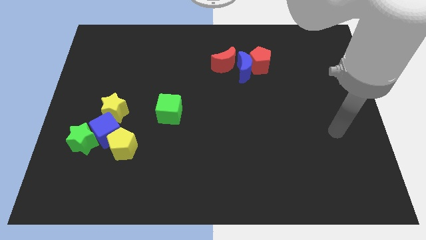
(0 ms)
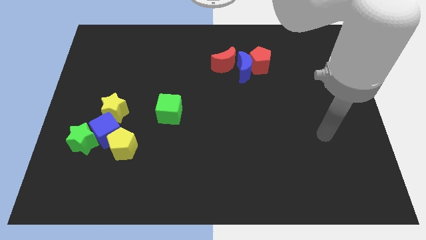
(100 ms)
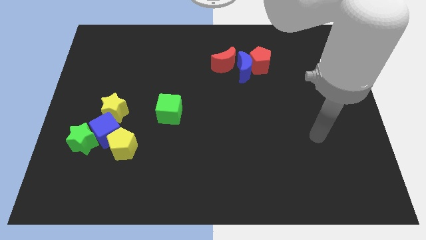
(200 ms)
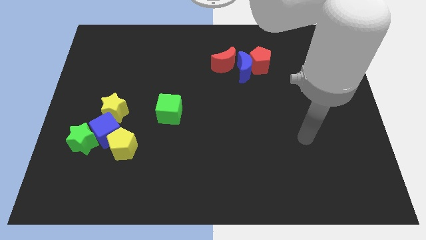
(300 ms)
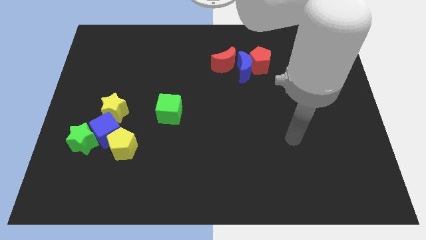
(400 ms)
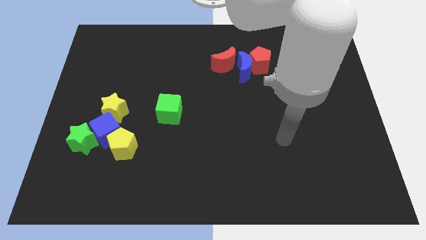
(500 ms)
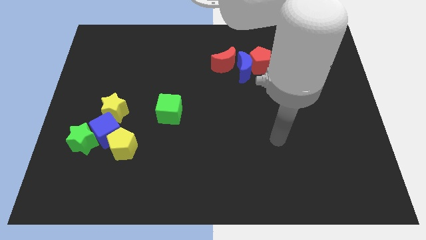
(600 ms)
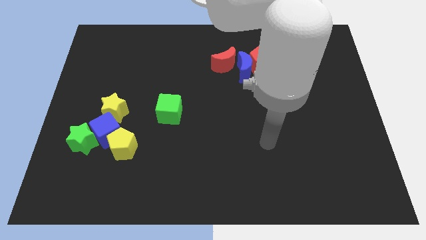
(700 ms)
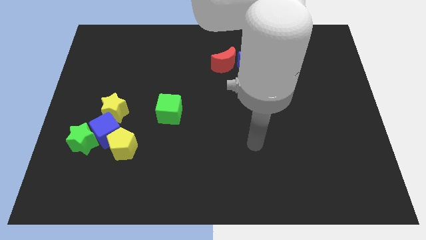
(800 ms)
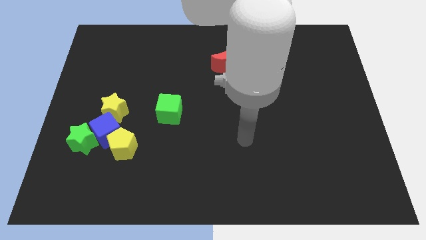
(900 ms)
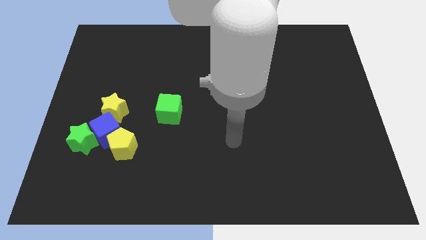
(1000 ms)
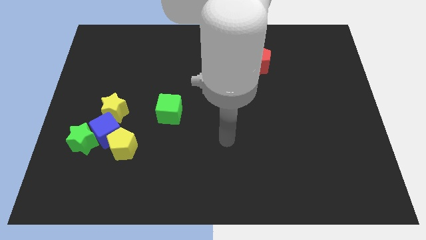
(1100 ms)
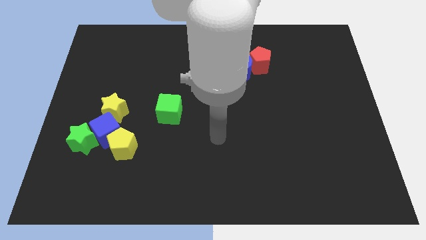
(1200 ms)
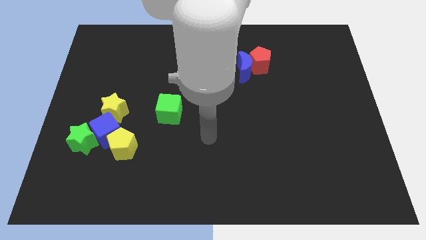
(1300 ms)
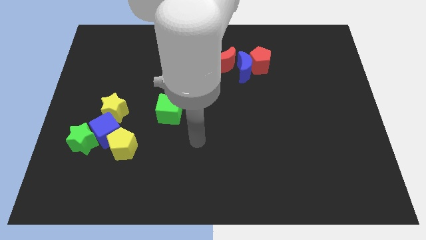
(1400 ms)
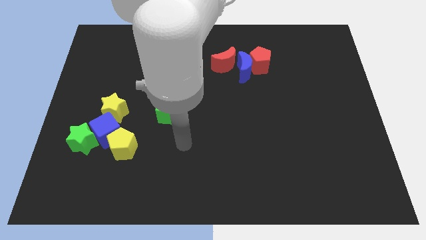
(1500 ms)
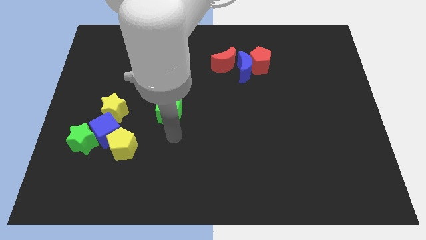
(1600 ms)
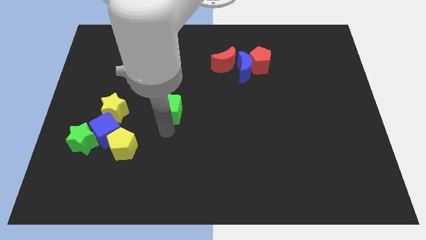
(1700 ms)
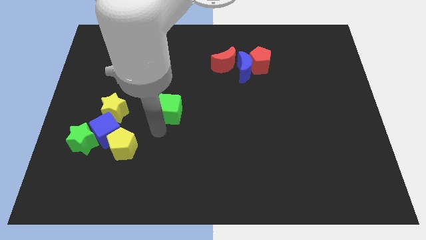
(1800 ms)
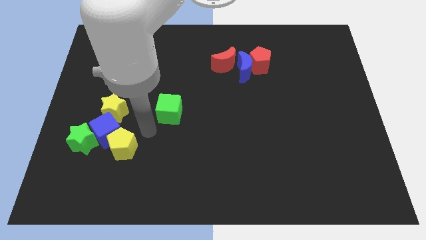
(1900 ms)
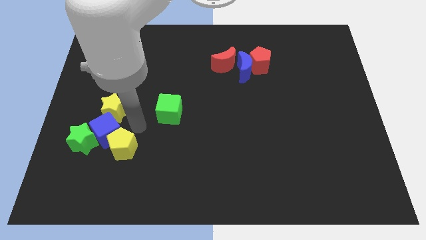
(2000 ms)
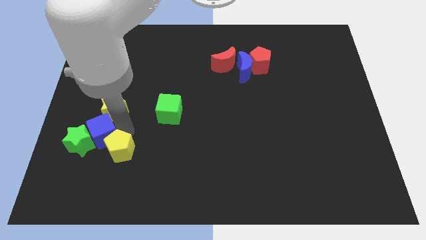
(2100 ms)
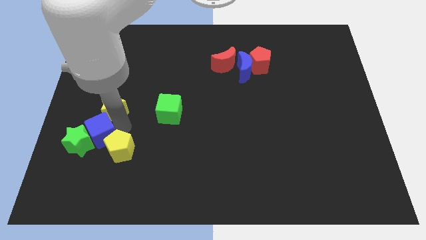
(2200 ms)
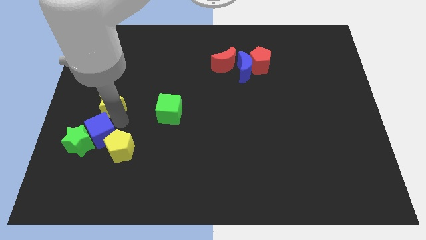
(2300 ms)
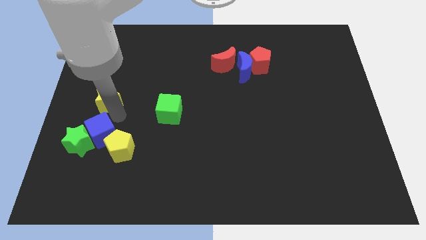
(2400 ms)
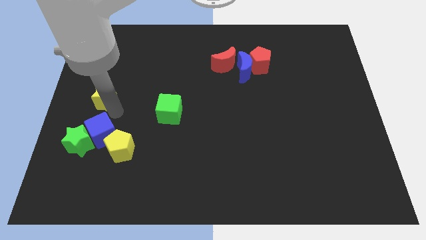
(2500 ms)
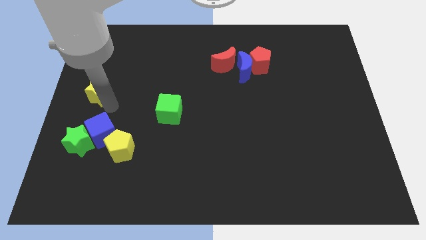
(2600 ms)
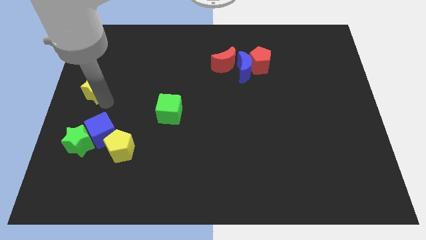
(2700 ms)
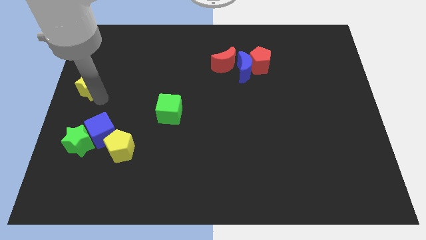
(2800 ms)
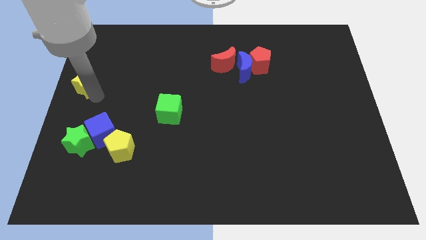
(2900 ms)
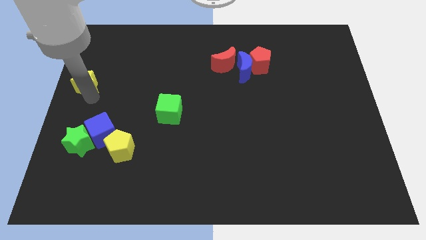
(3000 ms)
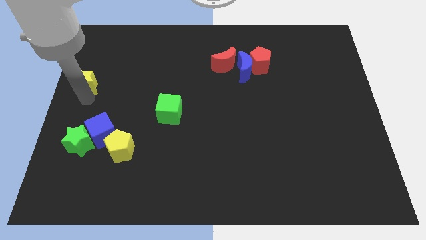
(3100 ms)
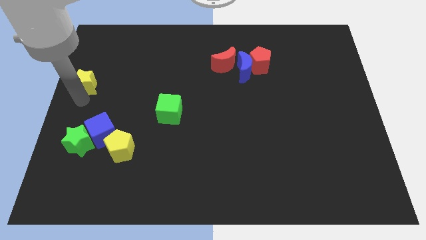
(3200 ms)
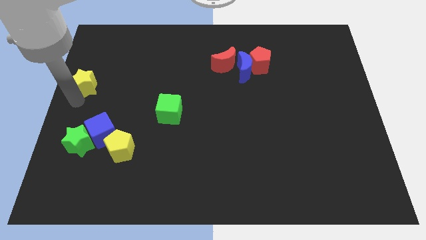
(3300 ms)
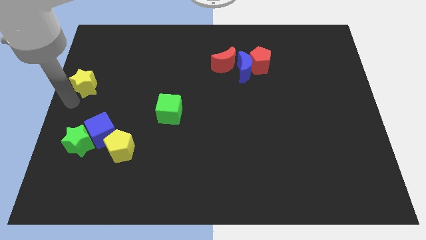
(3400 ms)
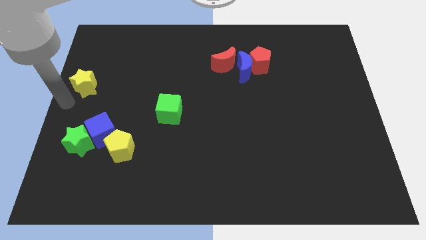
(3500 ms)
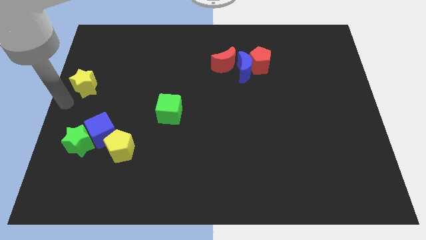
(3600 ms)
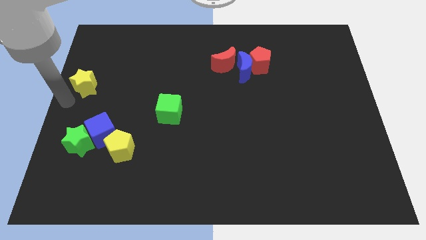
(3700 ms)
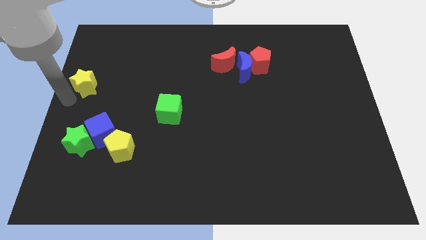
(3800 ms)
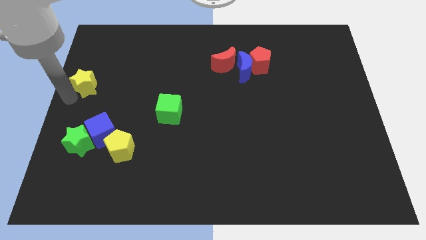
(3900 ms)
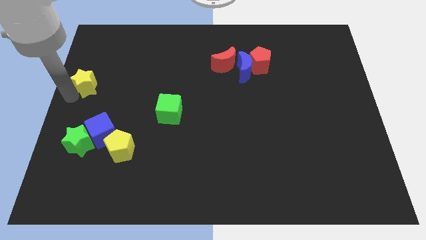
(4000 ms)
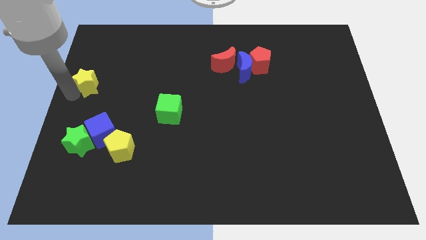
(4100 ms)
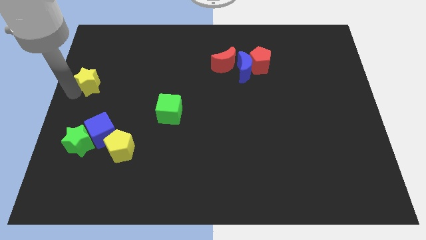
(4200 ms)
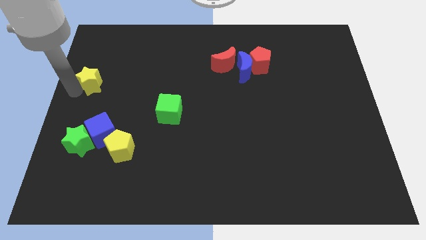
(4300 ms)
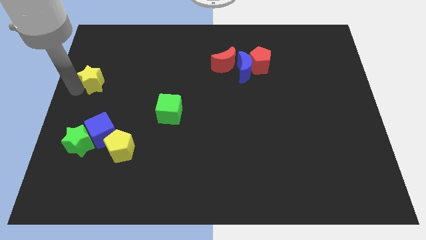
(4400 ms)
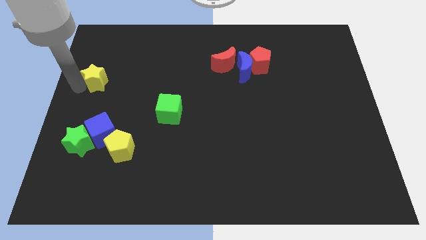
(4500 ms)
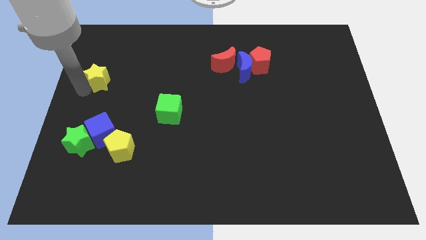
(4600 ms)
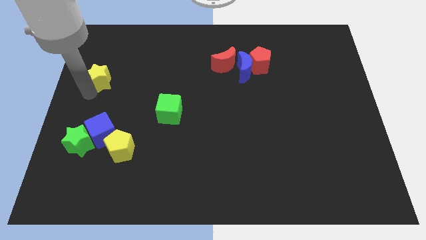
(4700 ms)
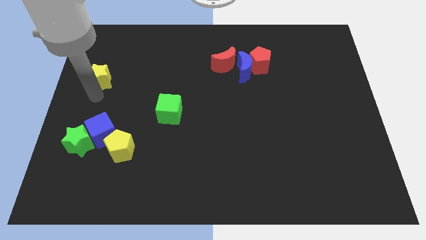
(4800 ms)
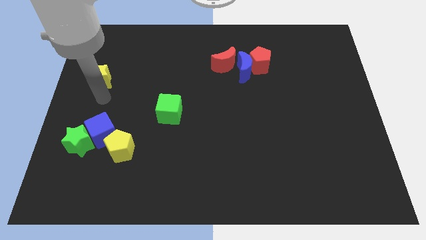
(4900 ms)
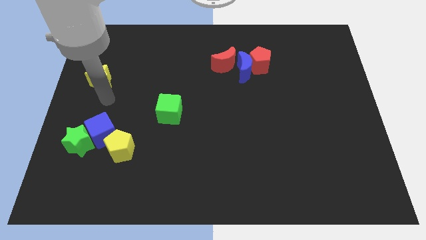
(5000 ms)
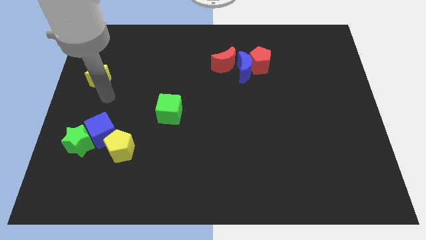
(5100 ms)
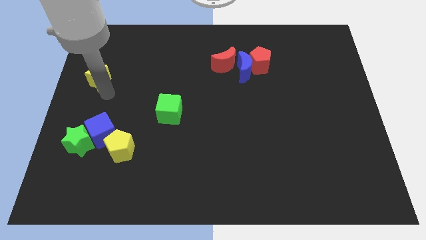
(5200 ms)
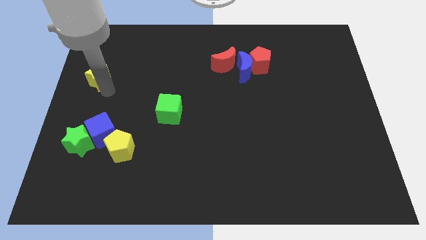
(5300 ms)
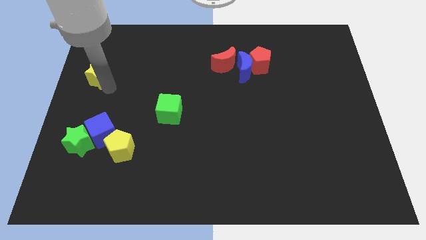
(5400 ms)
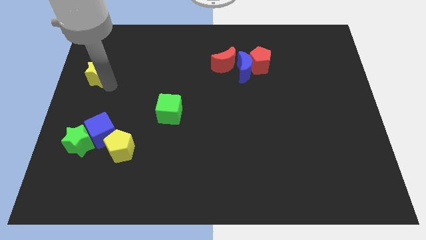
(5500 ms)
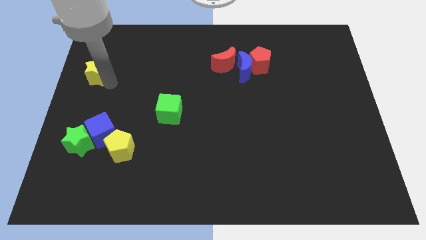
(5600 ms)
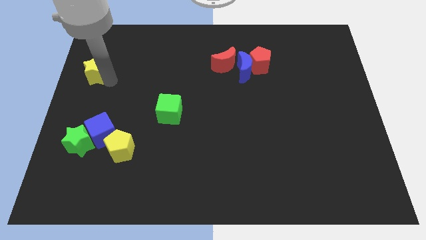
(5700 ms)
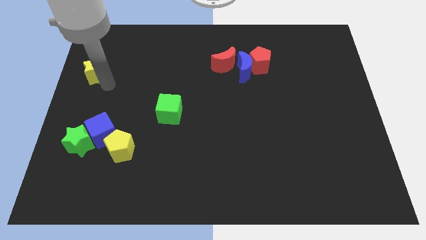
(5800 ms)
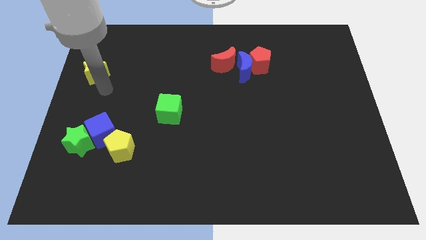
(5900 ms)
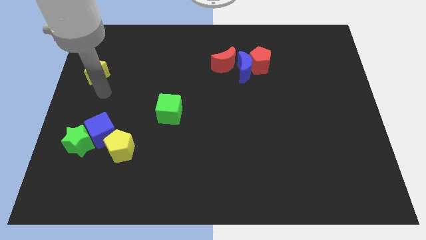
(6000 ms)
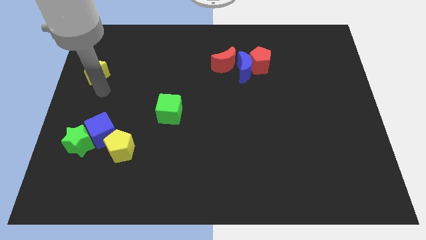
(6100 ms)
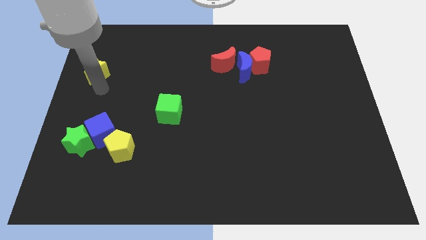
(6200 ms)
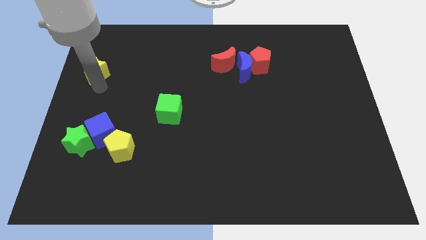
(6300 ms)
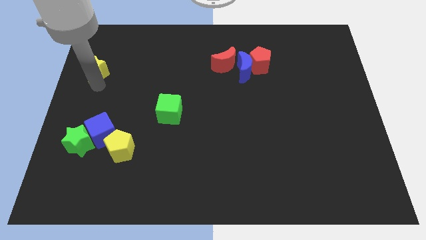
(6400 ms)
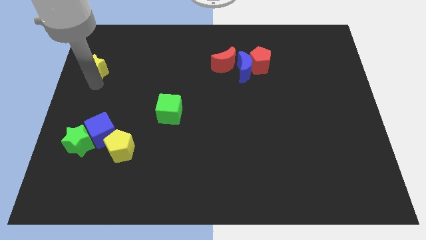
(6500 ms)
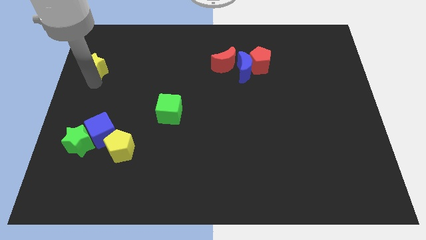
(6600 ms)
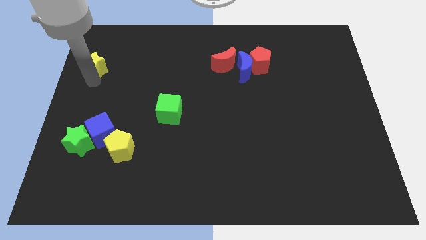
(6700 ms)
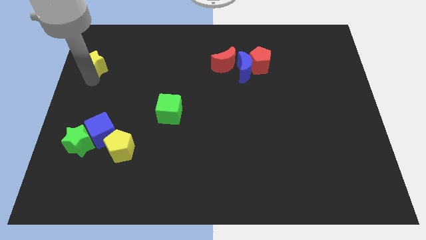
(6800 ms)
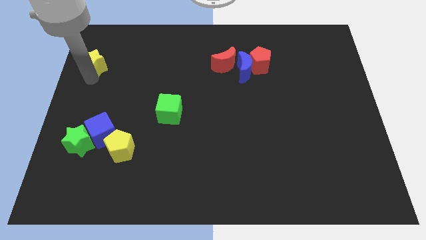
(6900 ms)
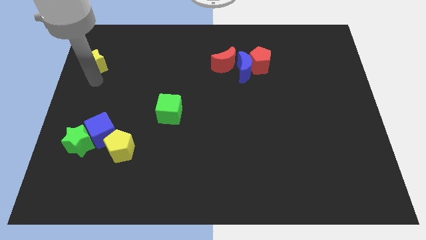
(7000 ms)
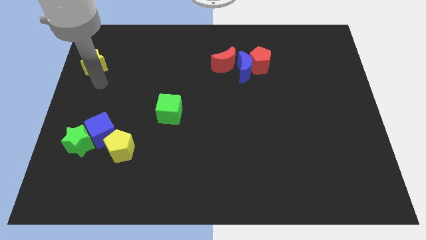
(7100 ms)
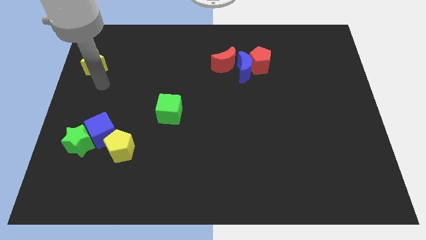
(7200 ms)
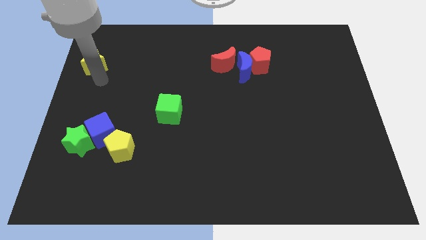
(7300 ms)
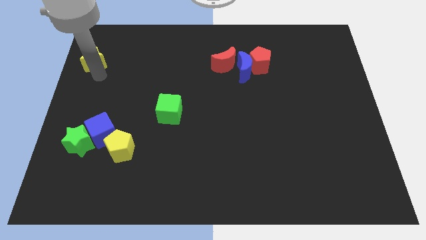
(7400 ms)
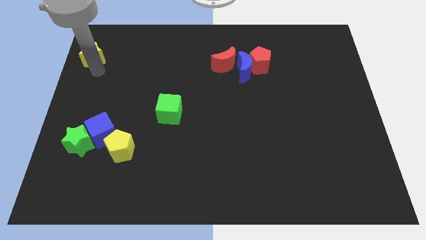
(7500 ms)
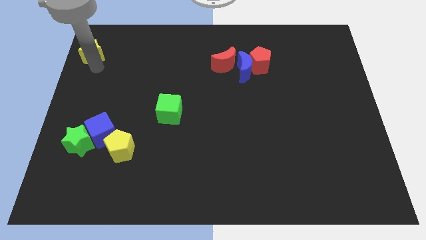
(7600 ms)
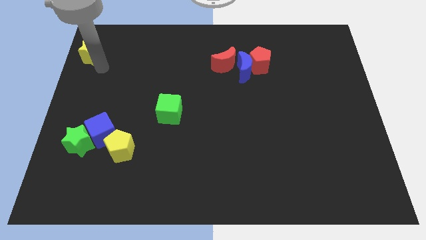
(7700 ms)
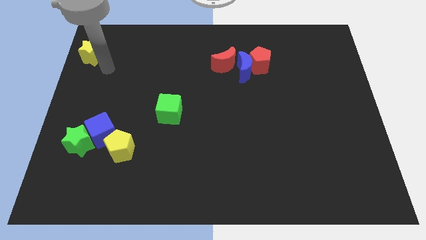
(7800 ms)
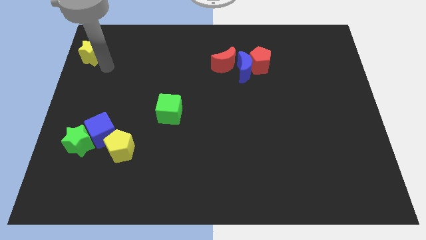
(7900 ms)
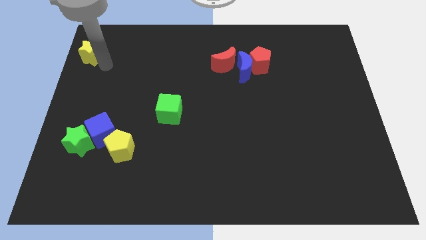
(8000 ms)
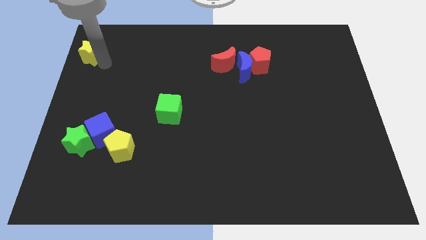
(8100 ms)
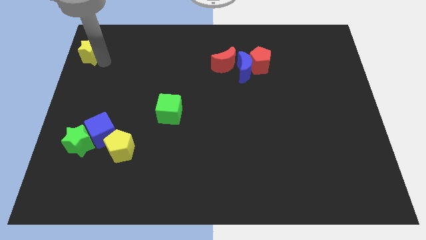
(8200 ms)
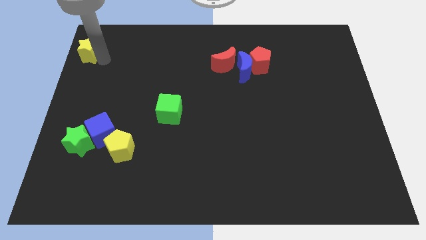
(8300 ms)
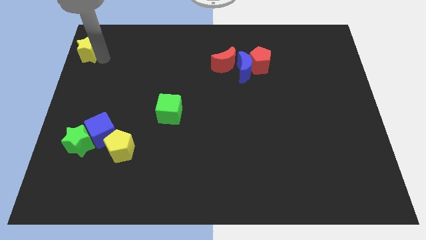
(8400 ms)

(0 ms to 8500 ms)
slide the yellow star to the top left
